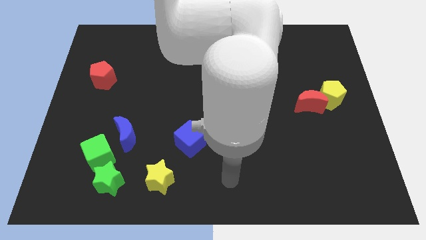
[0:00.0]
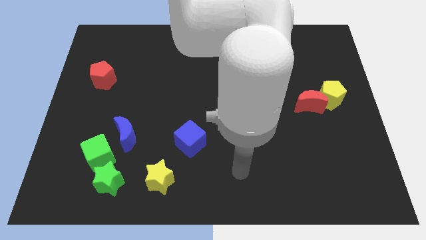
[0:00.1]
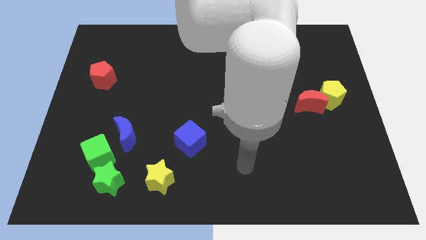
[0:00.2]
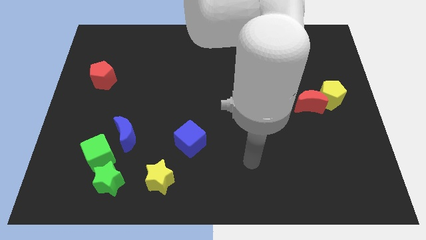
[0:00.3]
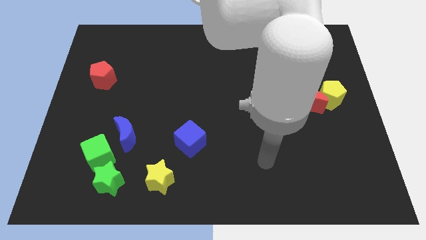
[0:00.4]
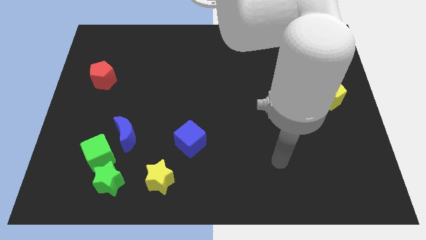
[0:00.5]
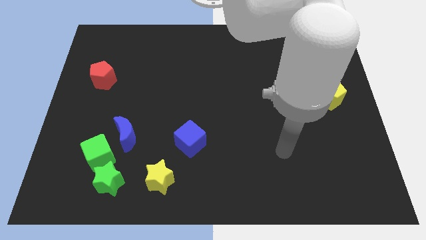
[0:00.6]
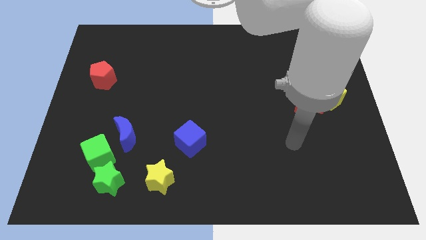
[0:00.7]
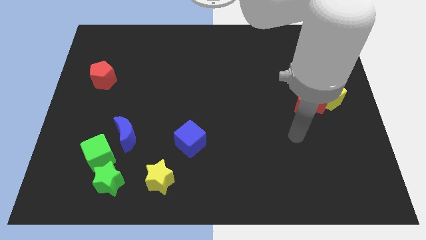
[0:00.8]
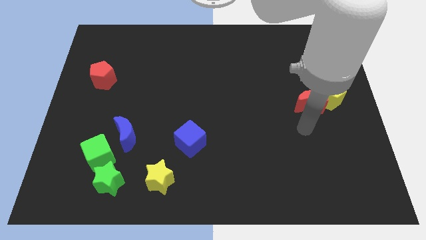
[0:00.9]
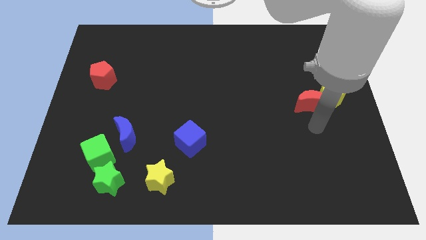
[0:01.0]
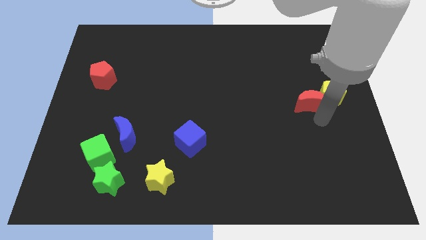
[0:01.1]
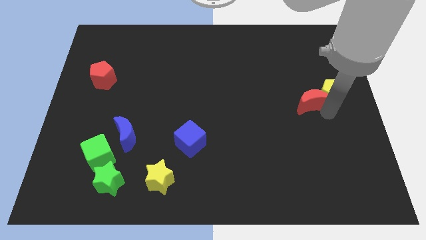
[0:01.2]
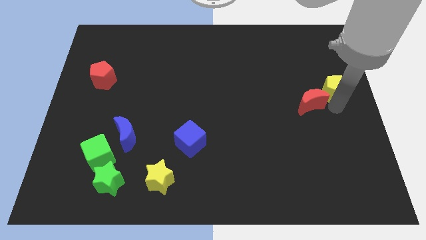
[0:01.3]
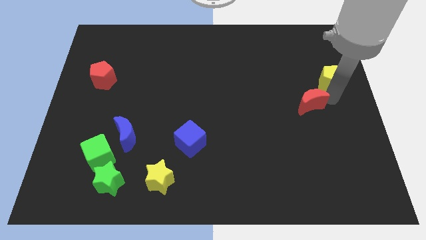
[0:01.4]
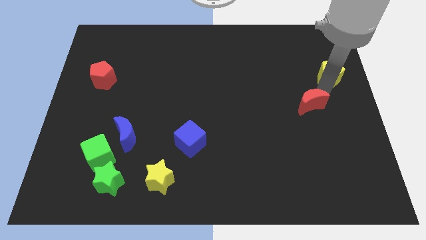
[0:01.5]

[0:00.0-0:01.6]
separate the red moon from the yellow pentagon

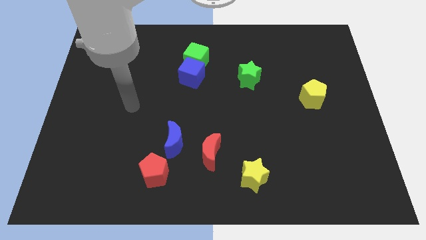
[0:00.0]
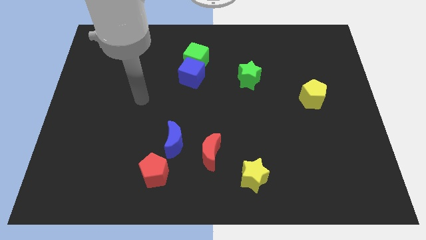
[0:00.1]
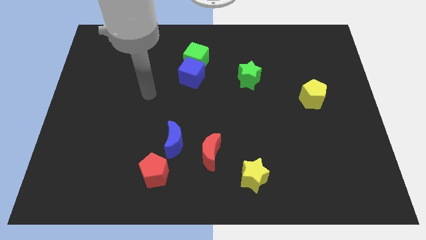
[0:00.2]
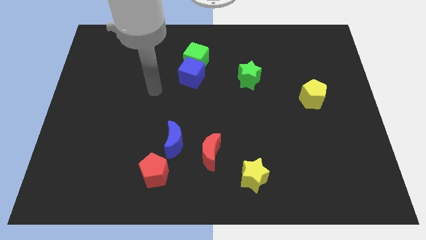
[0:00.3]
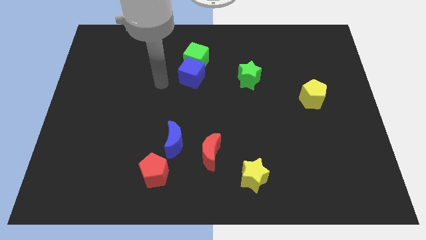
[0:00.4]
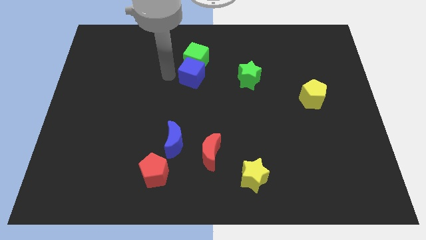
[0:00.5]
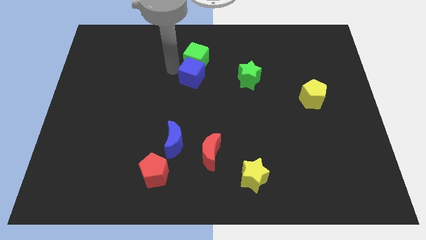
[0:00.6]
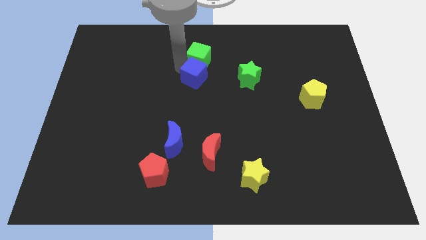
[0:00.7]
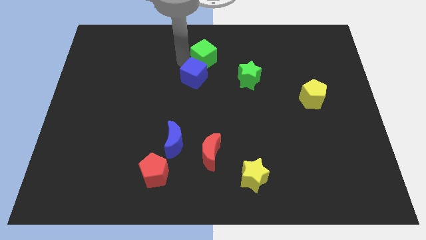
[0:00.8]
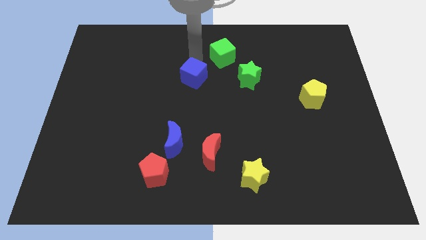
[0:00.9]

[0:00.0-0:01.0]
separate the blue cube from the green cube

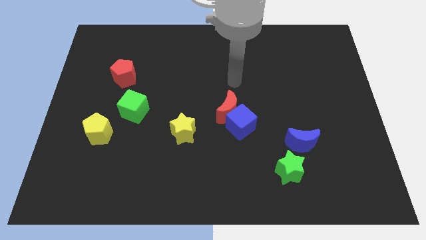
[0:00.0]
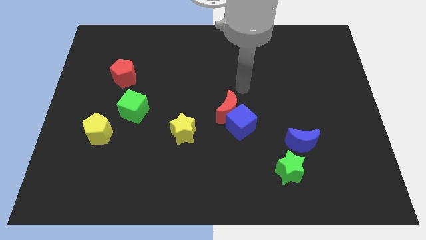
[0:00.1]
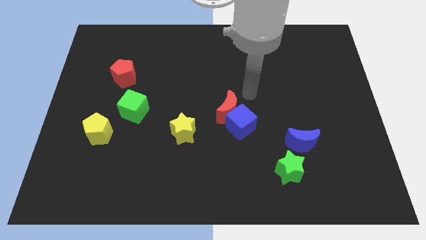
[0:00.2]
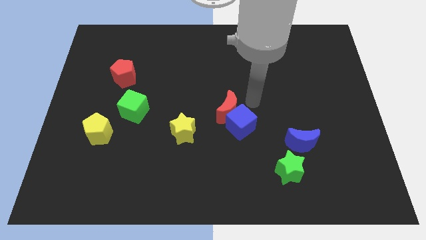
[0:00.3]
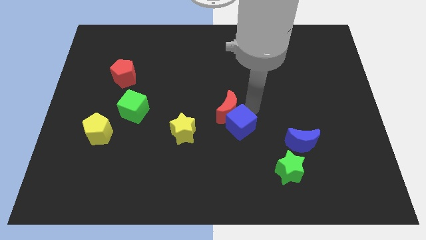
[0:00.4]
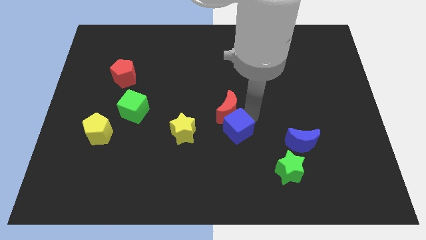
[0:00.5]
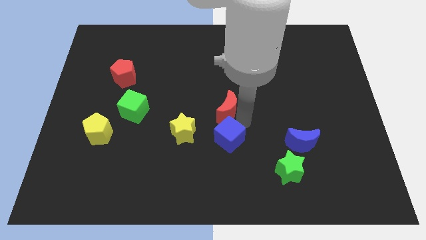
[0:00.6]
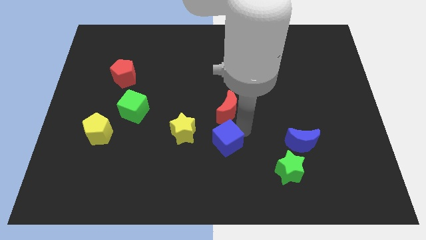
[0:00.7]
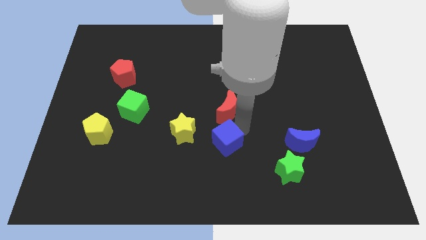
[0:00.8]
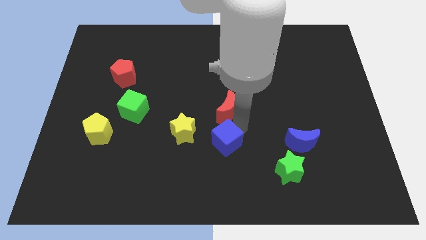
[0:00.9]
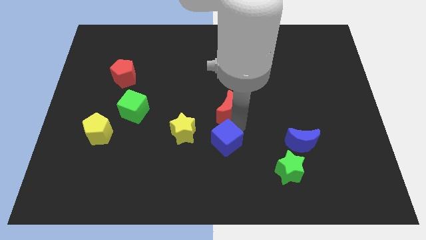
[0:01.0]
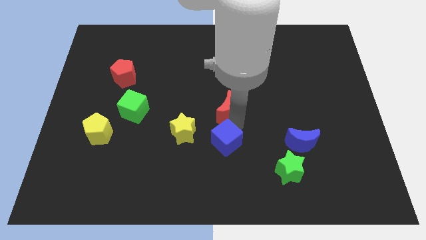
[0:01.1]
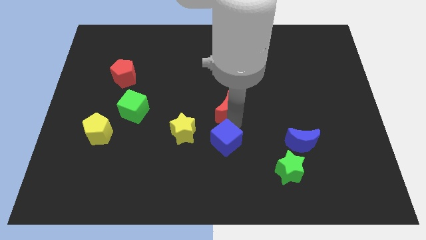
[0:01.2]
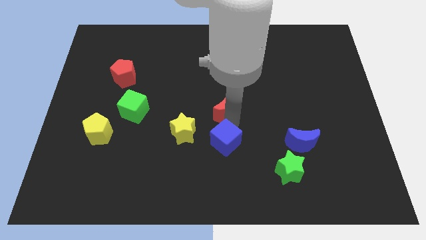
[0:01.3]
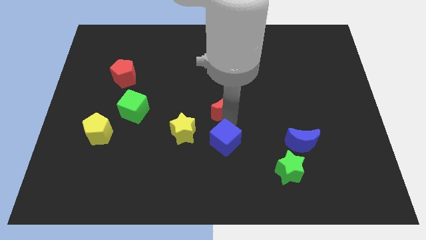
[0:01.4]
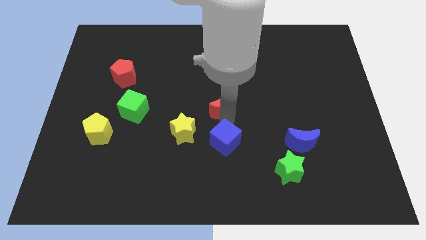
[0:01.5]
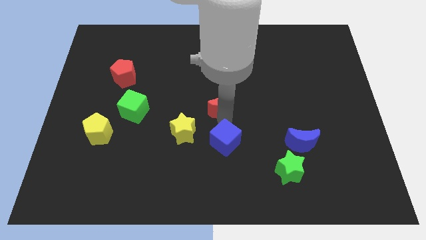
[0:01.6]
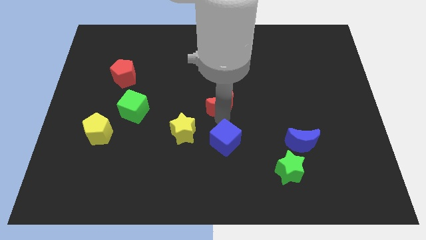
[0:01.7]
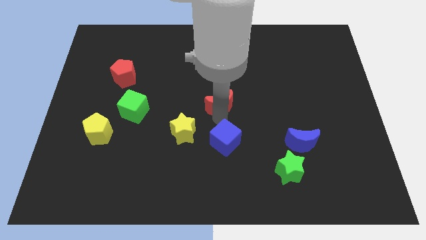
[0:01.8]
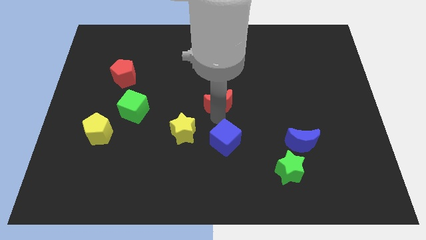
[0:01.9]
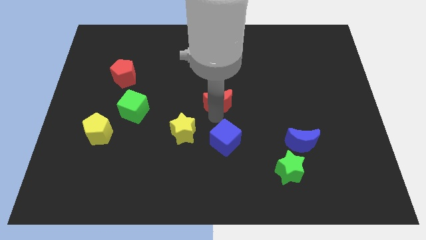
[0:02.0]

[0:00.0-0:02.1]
move the red moon away from the blue cube

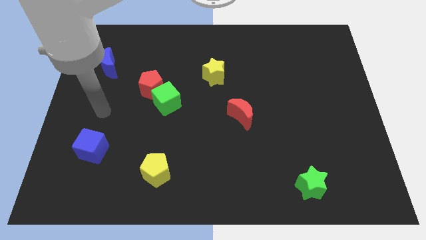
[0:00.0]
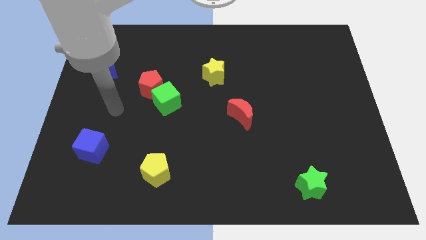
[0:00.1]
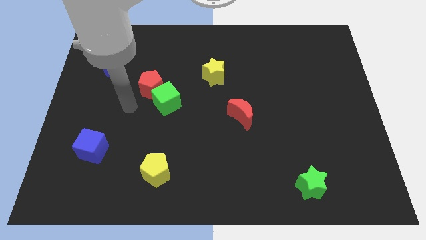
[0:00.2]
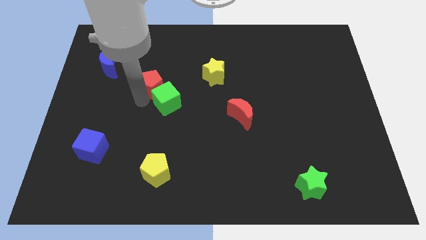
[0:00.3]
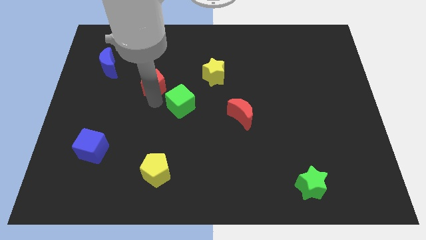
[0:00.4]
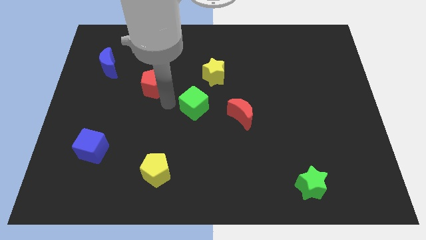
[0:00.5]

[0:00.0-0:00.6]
move the red pentagon away from the green cube

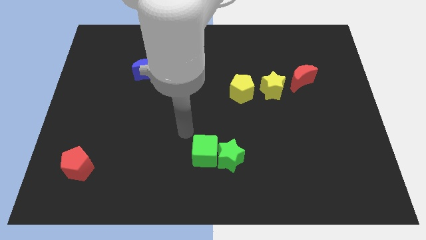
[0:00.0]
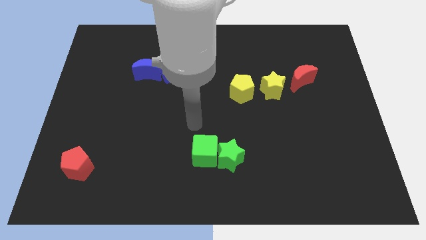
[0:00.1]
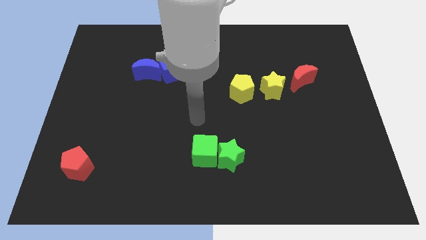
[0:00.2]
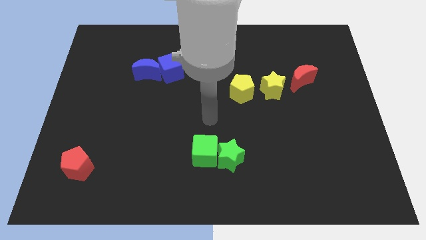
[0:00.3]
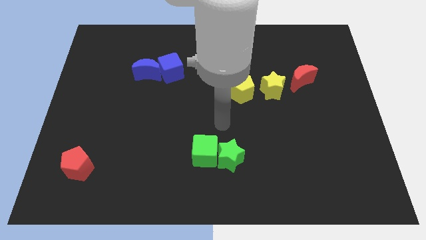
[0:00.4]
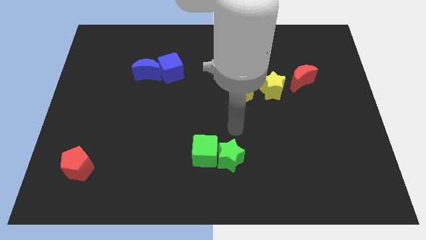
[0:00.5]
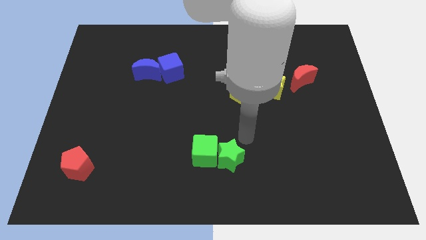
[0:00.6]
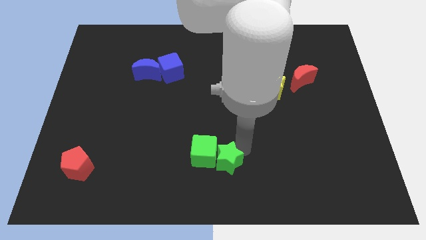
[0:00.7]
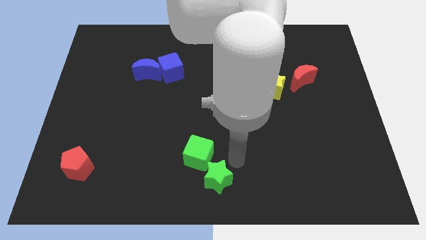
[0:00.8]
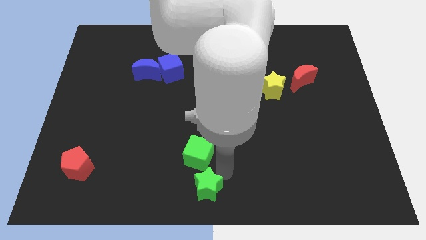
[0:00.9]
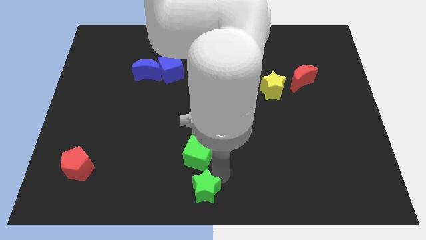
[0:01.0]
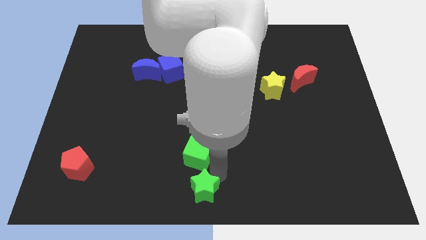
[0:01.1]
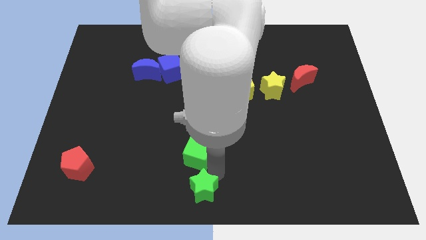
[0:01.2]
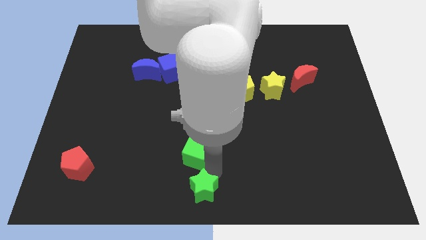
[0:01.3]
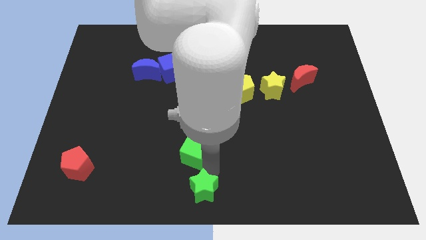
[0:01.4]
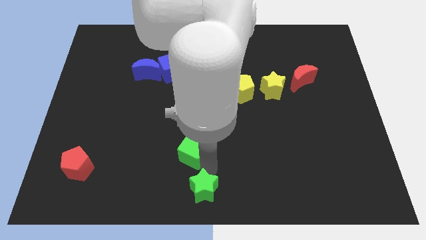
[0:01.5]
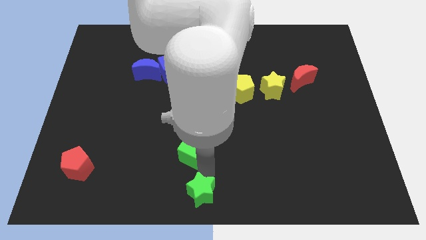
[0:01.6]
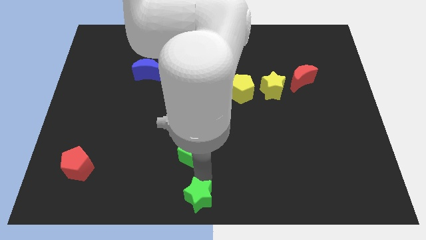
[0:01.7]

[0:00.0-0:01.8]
separate the green cube from the green star

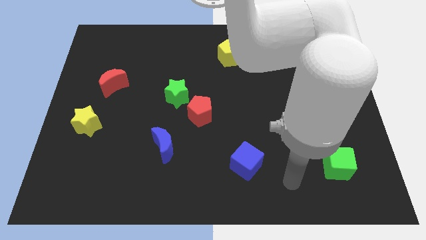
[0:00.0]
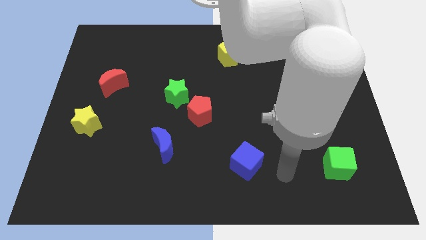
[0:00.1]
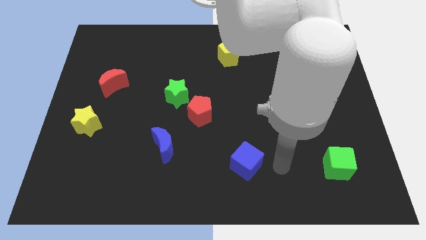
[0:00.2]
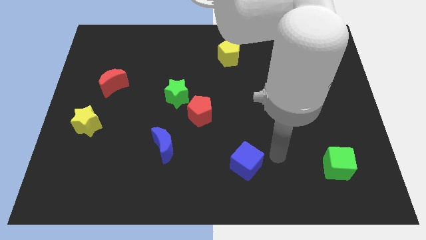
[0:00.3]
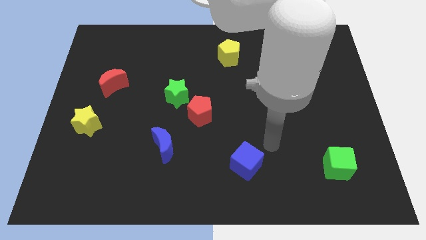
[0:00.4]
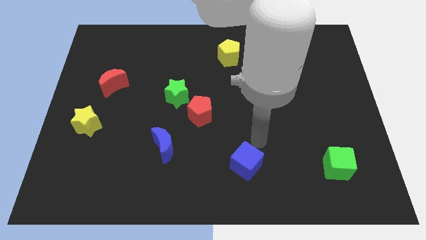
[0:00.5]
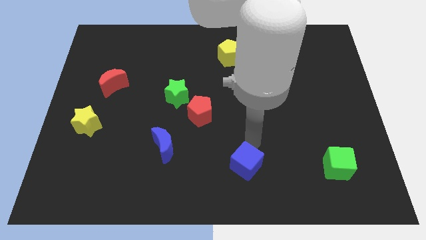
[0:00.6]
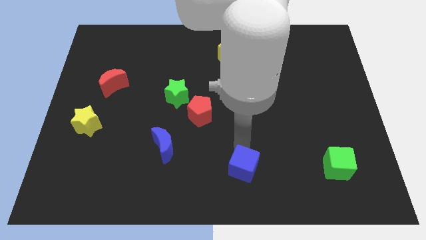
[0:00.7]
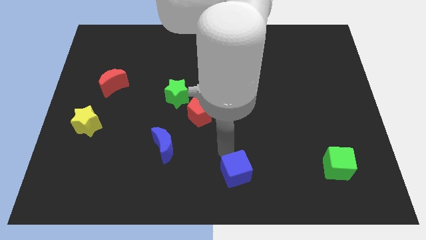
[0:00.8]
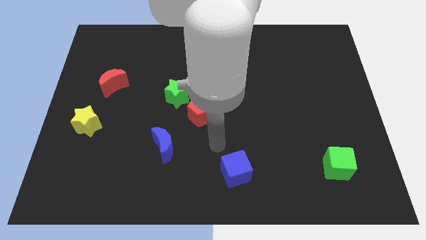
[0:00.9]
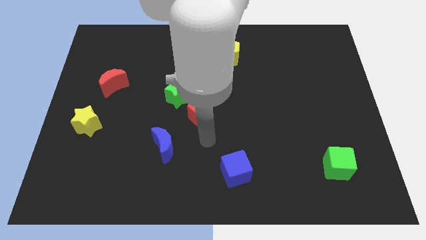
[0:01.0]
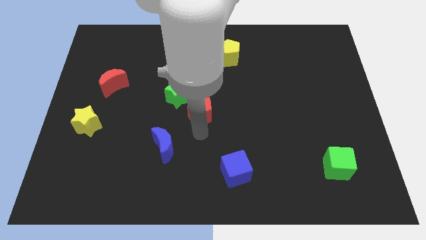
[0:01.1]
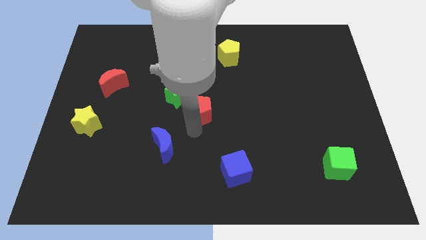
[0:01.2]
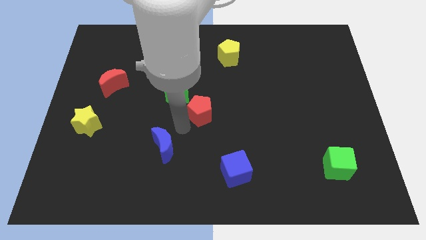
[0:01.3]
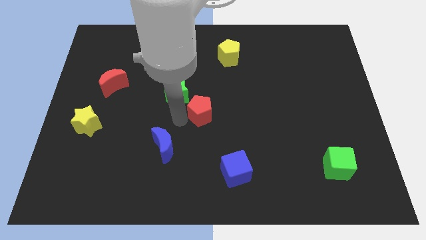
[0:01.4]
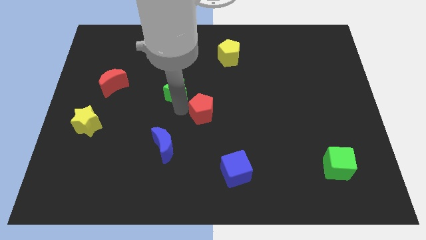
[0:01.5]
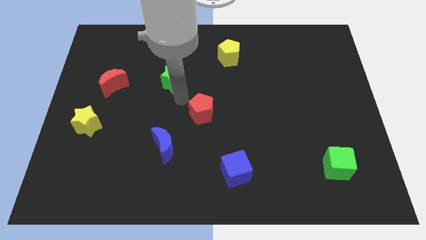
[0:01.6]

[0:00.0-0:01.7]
move the red pentagon away from the green star

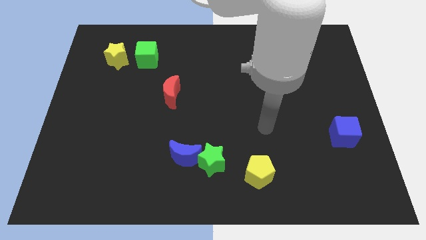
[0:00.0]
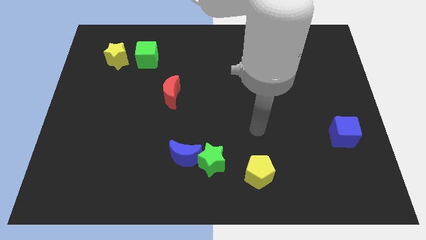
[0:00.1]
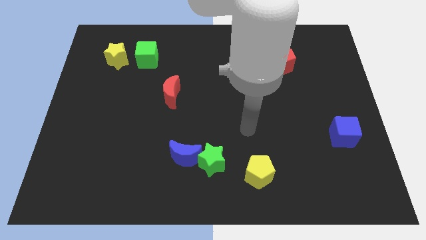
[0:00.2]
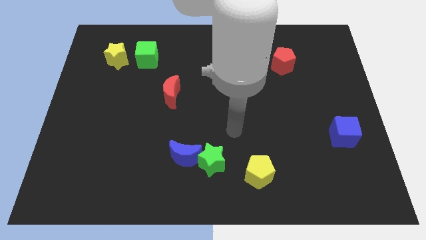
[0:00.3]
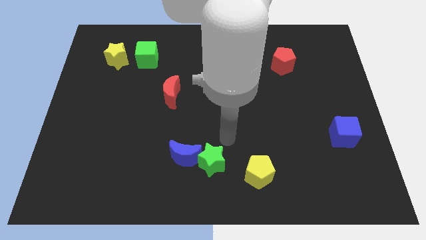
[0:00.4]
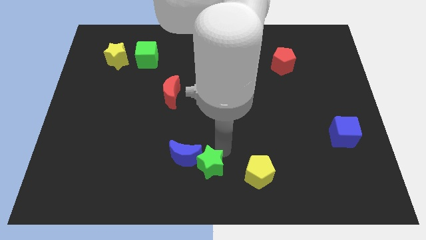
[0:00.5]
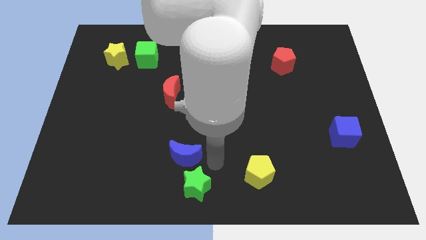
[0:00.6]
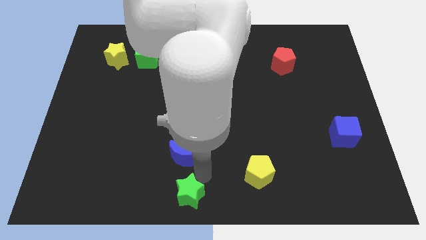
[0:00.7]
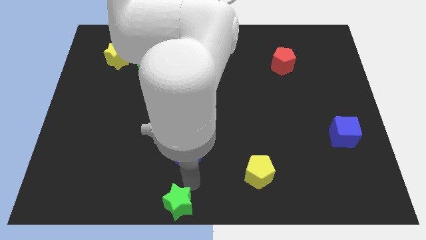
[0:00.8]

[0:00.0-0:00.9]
separate the blue moon from the green star
